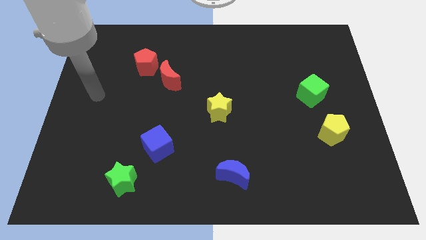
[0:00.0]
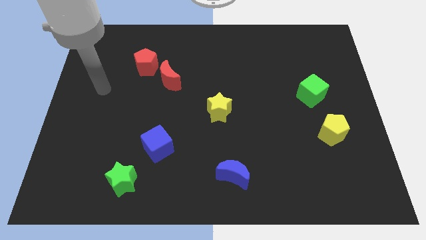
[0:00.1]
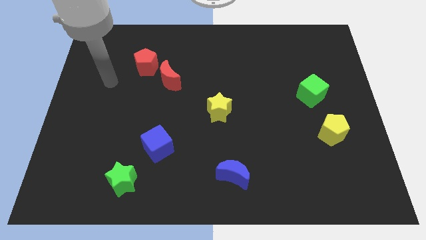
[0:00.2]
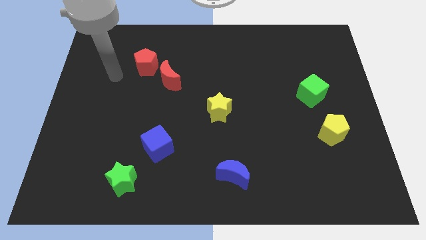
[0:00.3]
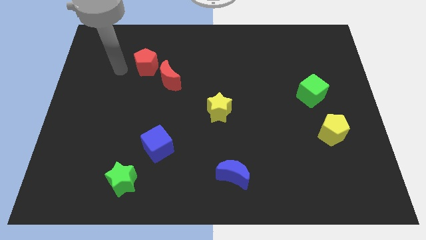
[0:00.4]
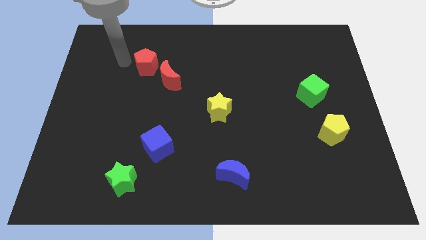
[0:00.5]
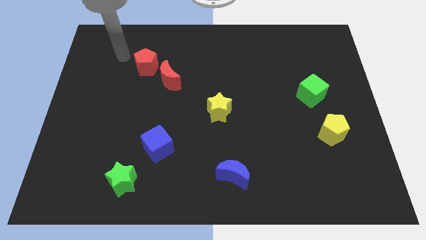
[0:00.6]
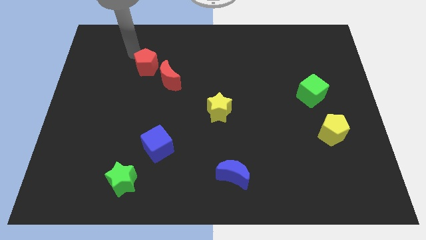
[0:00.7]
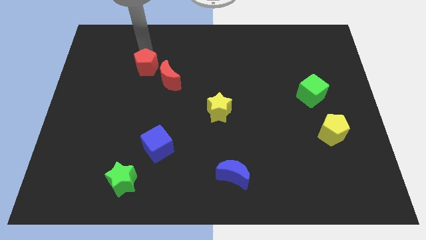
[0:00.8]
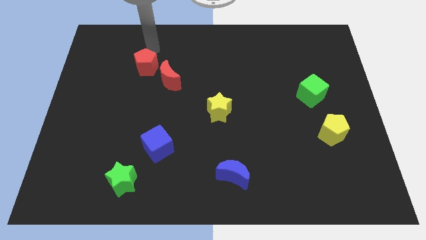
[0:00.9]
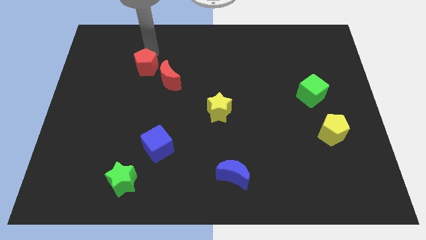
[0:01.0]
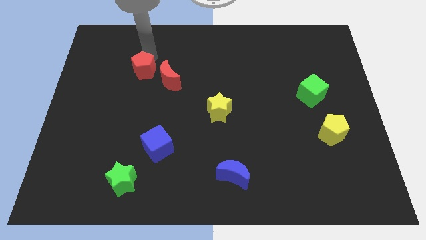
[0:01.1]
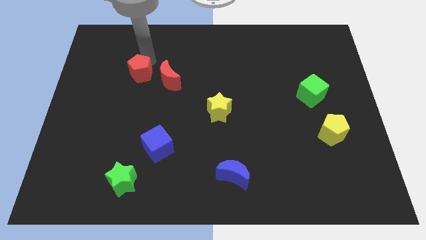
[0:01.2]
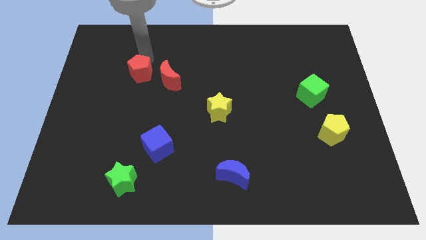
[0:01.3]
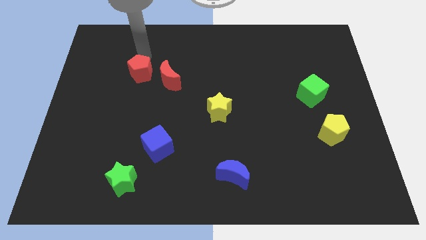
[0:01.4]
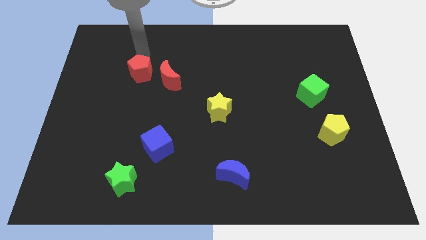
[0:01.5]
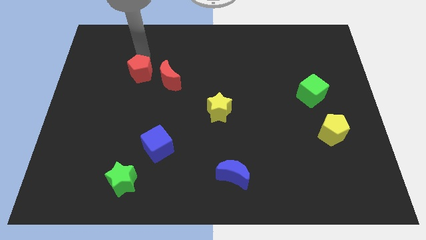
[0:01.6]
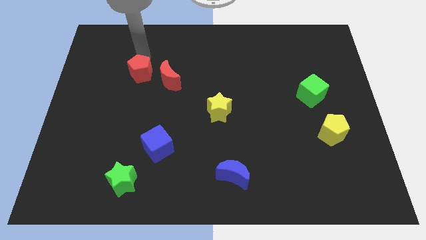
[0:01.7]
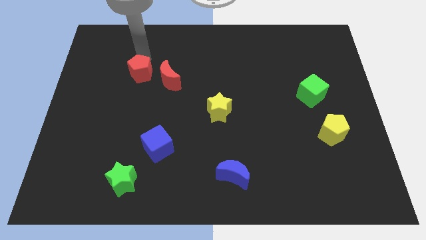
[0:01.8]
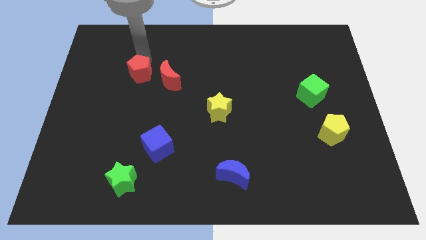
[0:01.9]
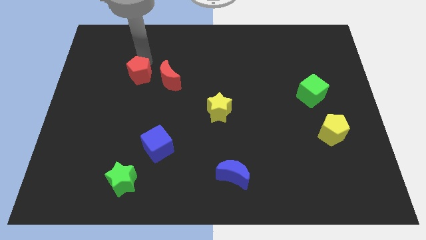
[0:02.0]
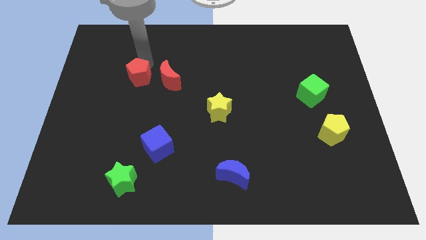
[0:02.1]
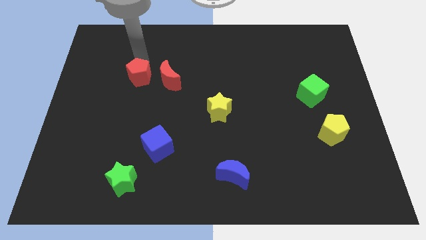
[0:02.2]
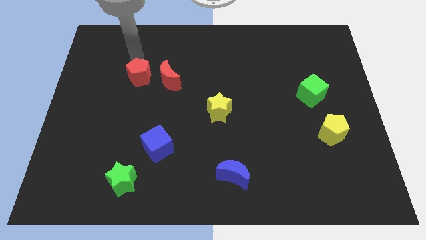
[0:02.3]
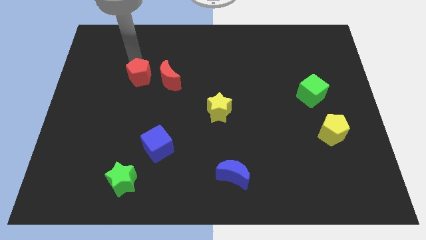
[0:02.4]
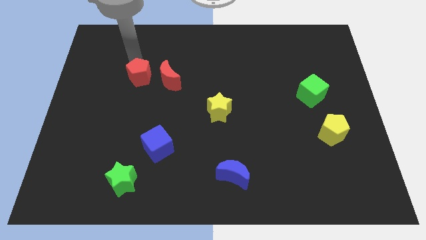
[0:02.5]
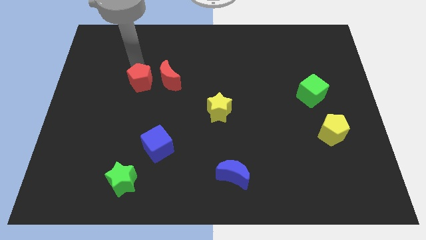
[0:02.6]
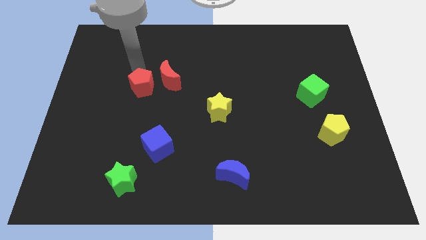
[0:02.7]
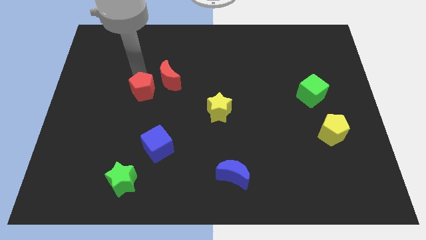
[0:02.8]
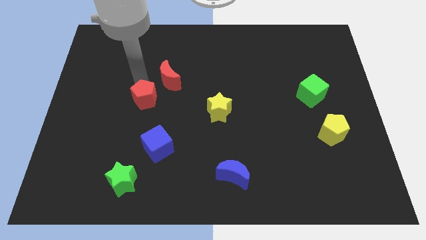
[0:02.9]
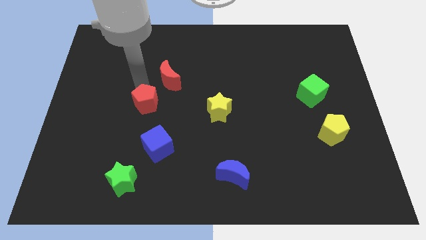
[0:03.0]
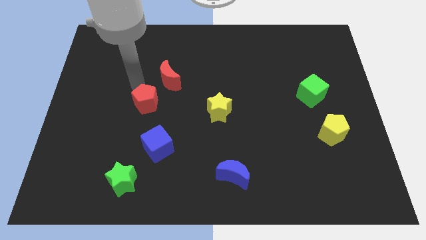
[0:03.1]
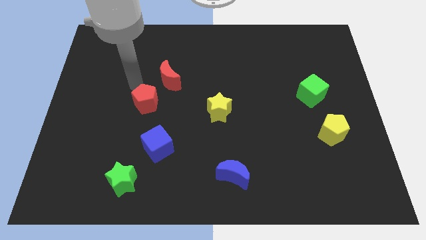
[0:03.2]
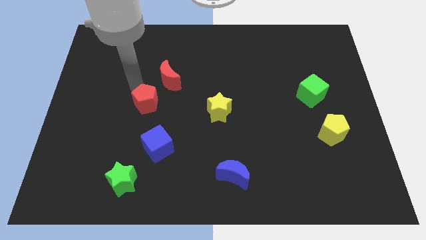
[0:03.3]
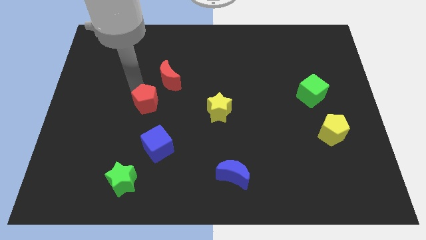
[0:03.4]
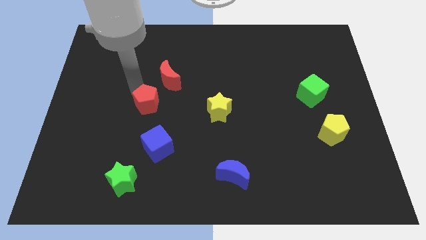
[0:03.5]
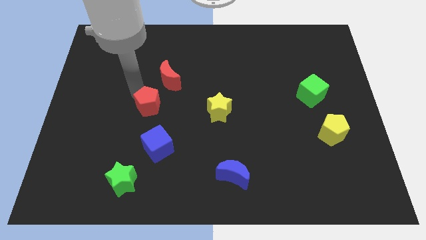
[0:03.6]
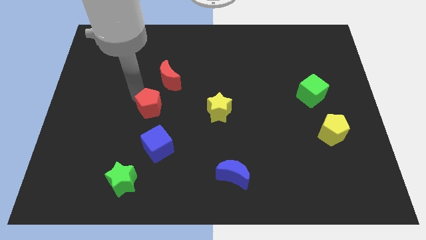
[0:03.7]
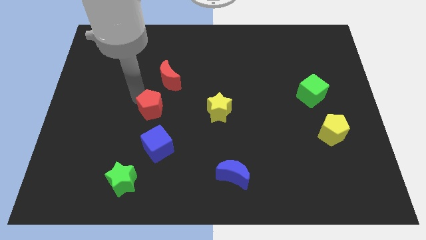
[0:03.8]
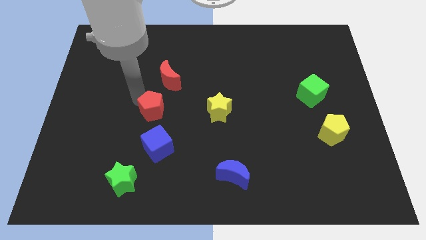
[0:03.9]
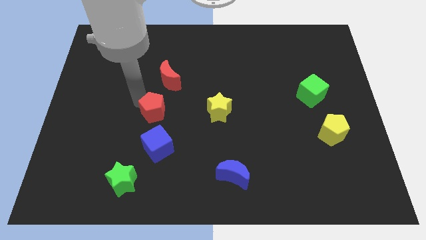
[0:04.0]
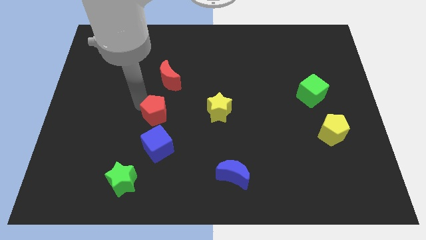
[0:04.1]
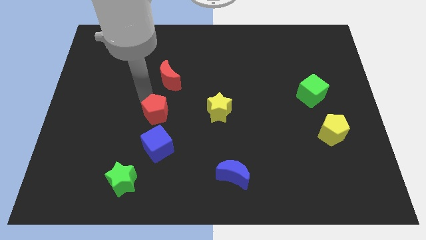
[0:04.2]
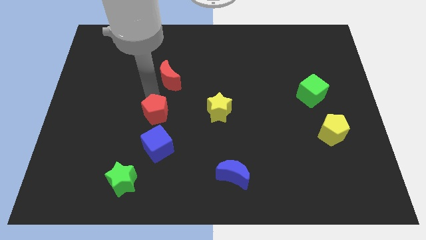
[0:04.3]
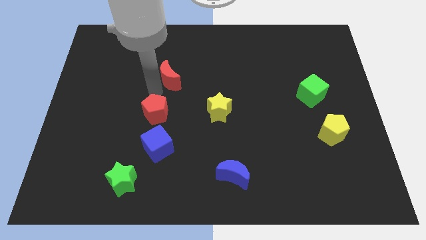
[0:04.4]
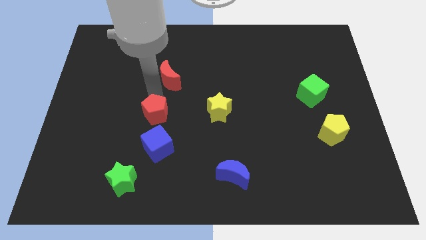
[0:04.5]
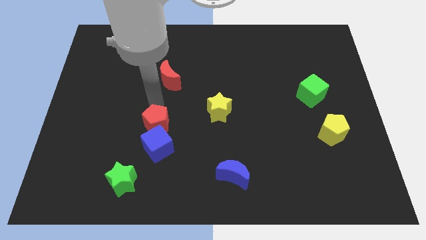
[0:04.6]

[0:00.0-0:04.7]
put the red pentagon towards the blue cube

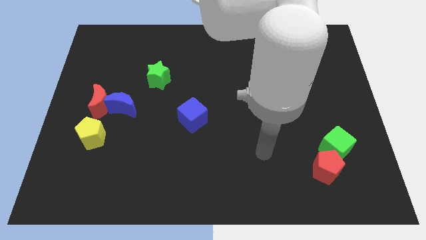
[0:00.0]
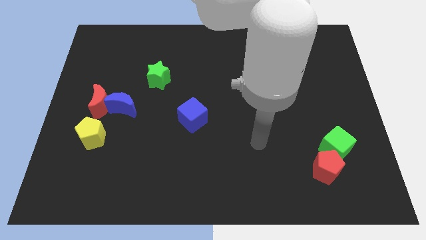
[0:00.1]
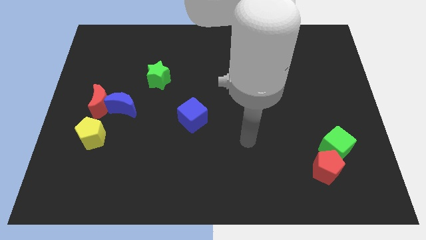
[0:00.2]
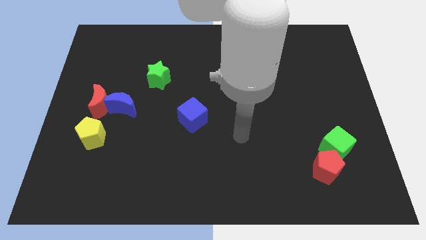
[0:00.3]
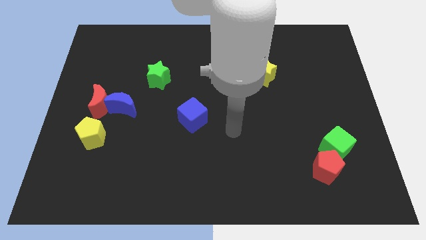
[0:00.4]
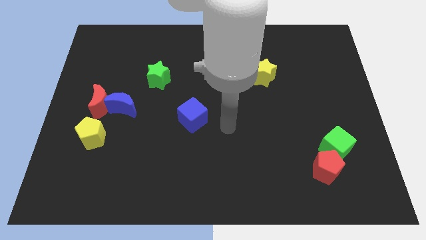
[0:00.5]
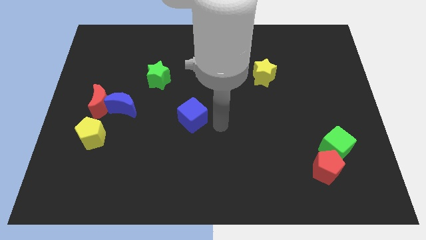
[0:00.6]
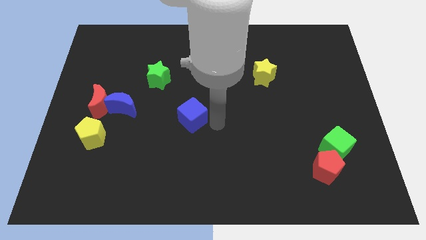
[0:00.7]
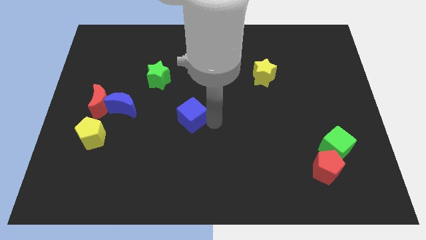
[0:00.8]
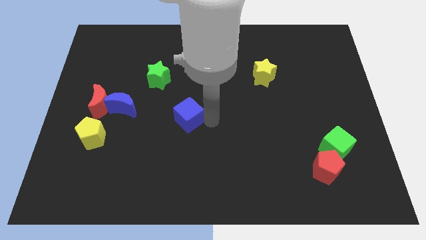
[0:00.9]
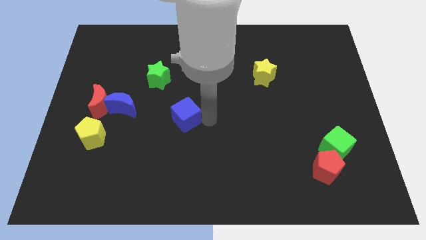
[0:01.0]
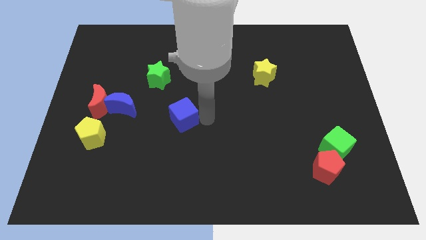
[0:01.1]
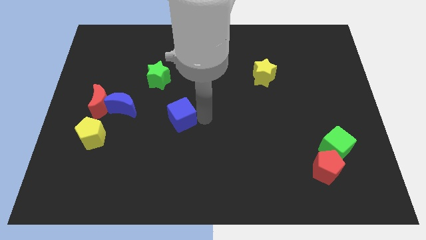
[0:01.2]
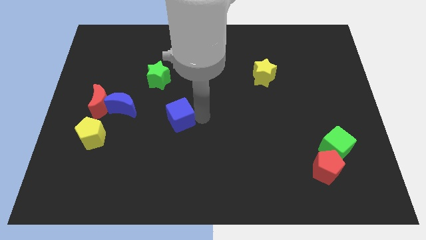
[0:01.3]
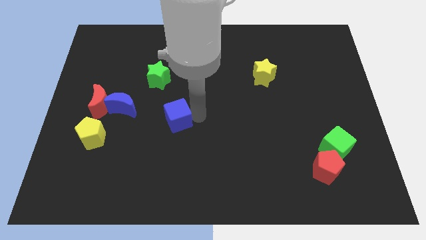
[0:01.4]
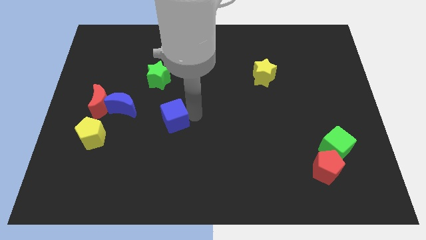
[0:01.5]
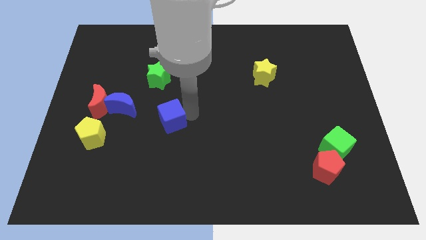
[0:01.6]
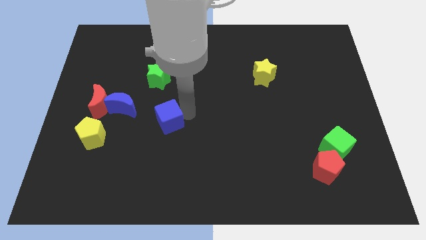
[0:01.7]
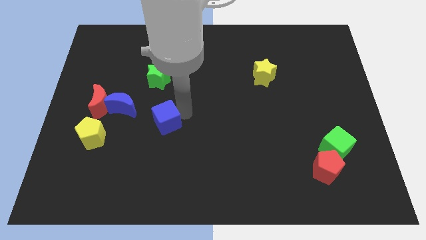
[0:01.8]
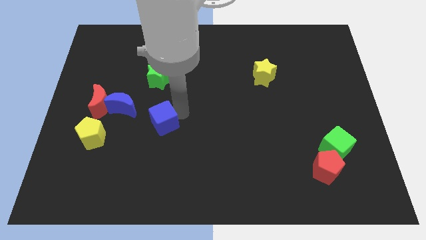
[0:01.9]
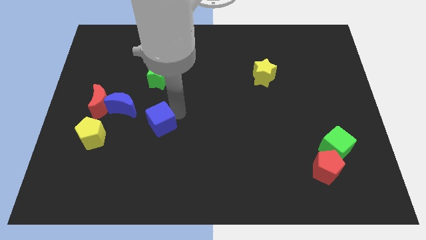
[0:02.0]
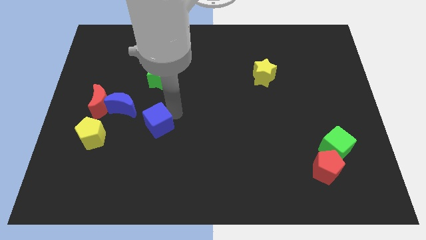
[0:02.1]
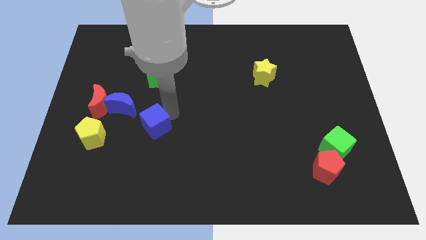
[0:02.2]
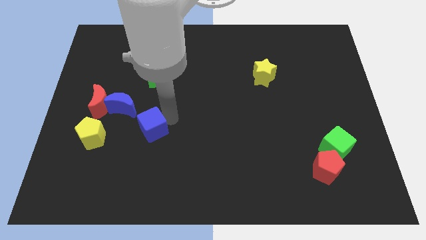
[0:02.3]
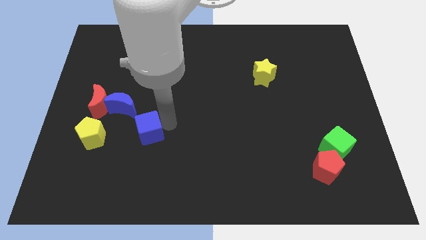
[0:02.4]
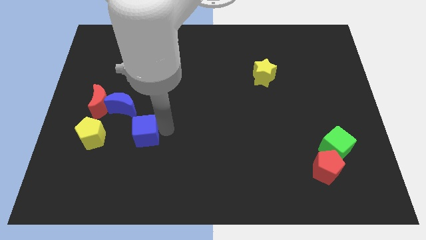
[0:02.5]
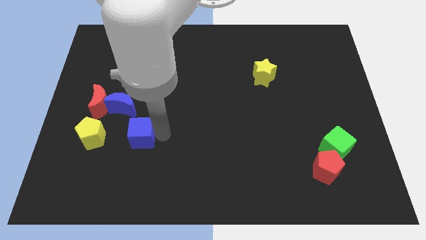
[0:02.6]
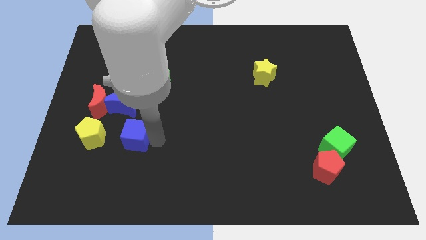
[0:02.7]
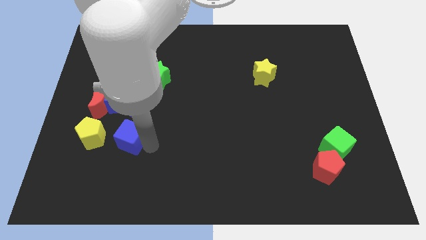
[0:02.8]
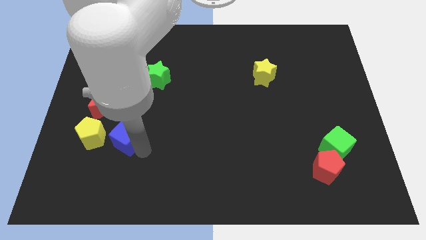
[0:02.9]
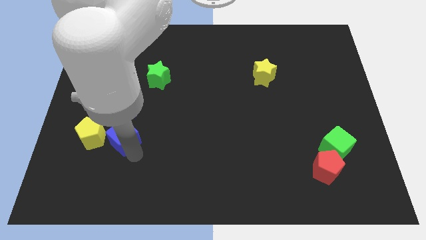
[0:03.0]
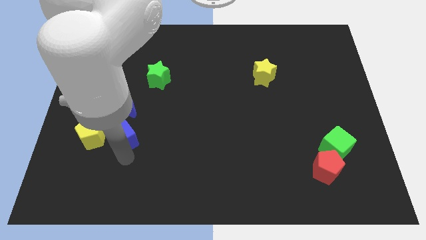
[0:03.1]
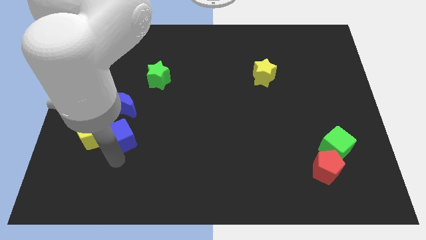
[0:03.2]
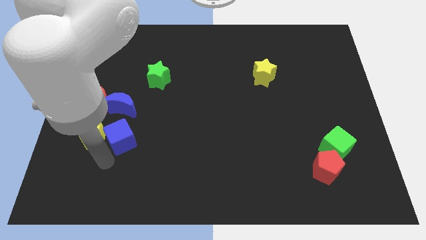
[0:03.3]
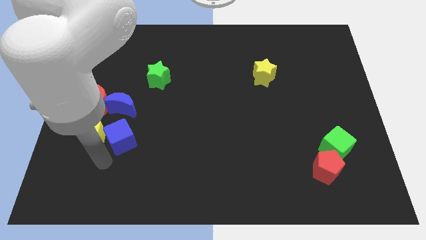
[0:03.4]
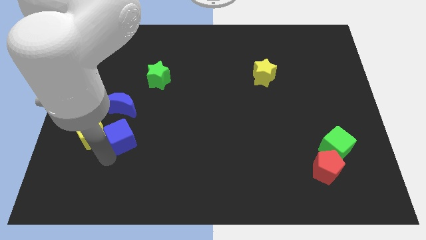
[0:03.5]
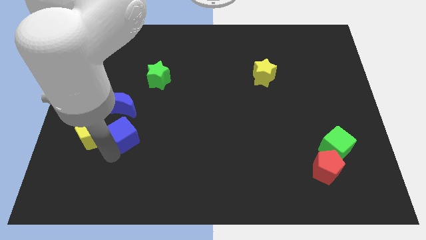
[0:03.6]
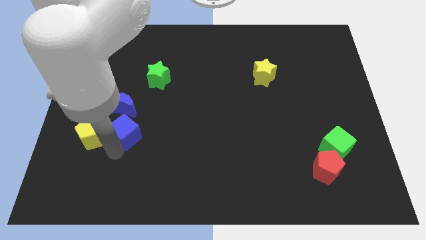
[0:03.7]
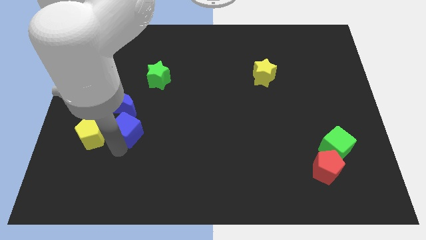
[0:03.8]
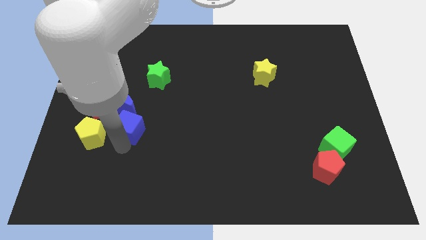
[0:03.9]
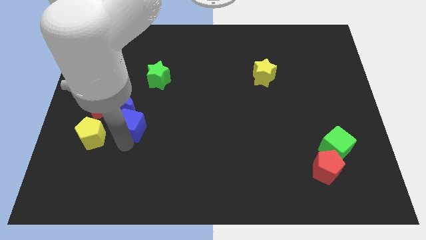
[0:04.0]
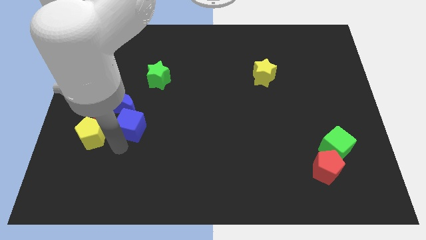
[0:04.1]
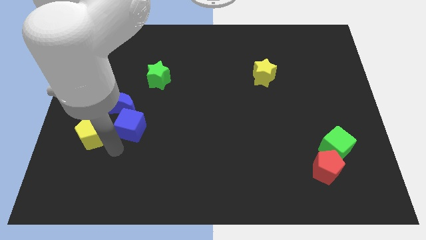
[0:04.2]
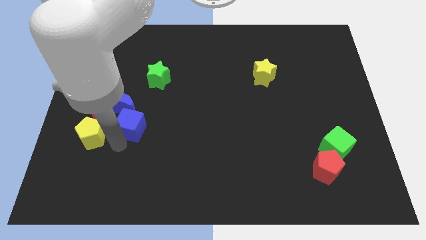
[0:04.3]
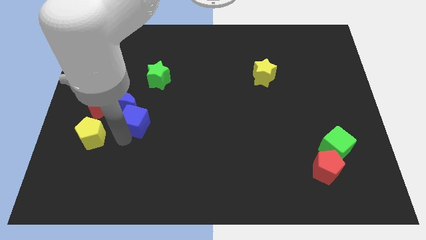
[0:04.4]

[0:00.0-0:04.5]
push the blue cube towards the blue moon
